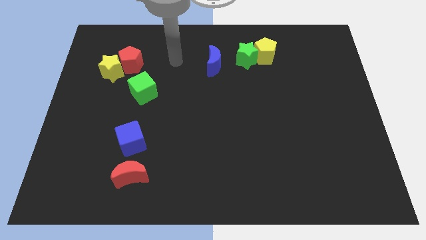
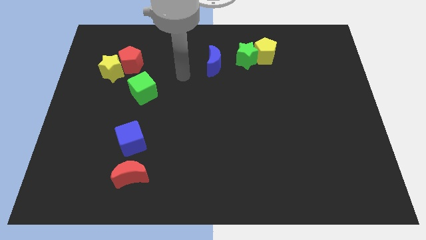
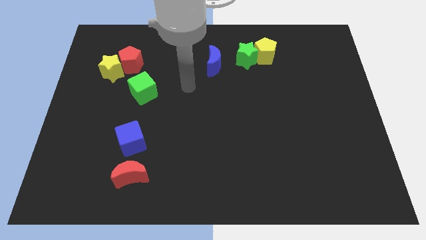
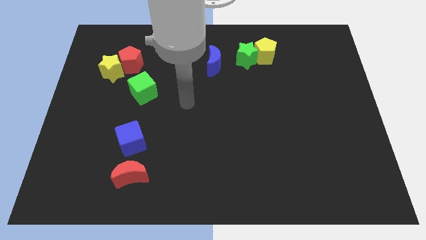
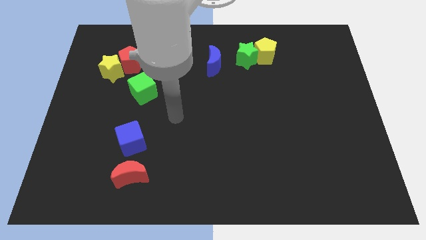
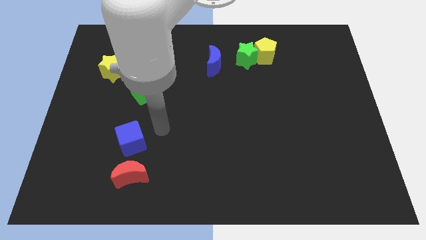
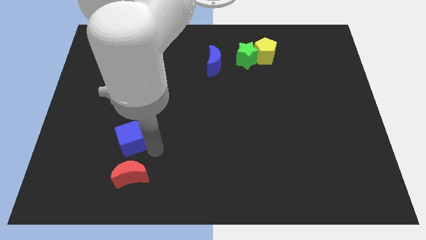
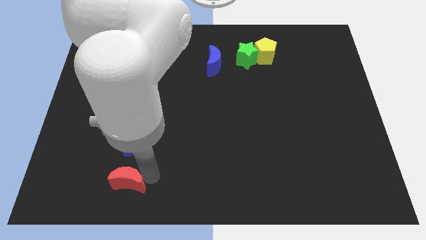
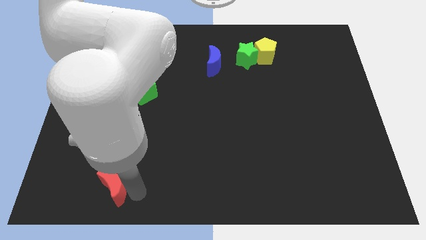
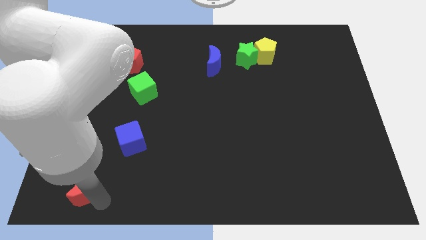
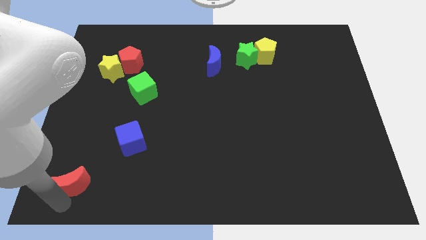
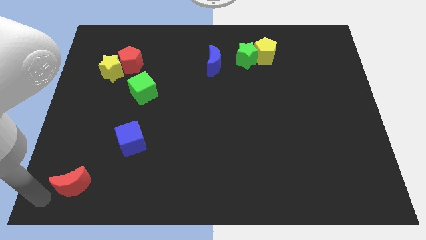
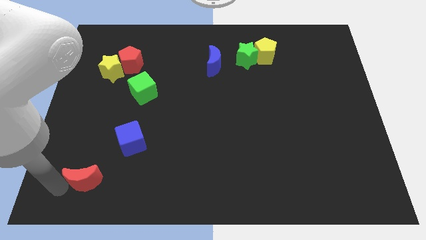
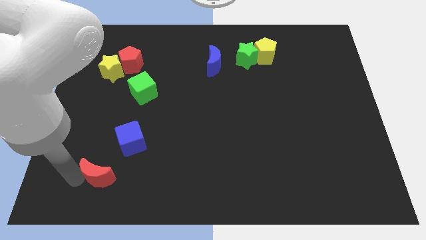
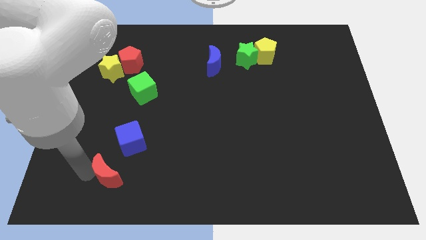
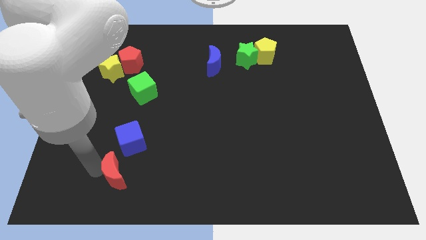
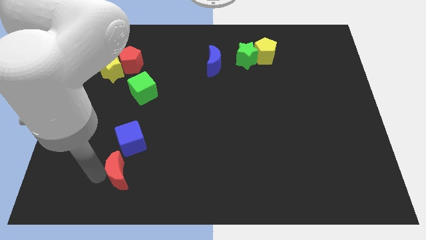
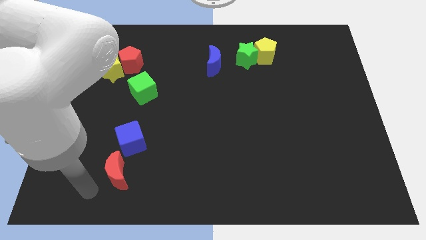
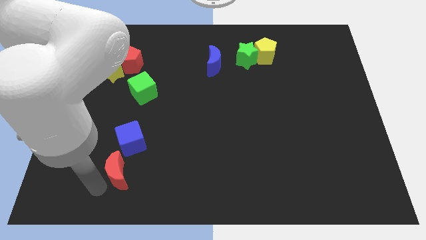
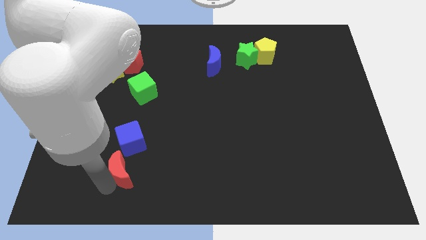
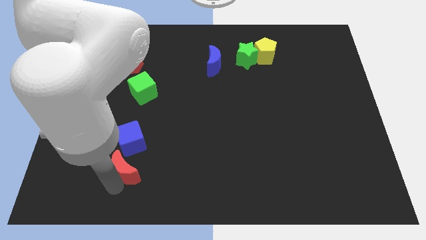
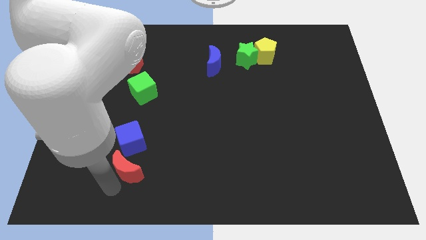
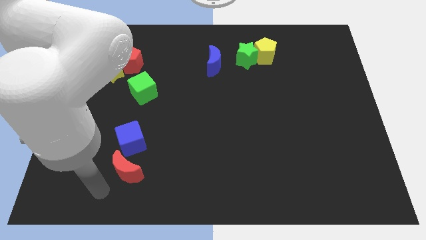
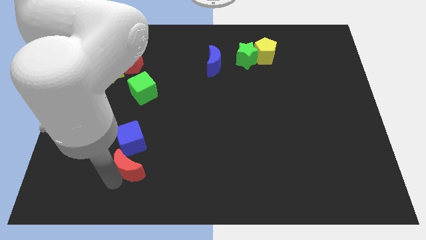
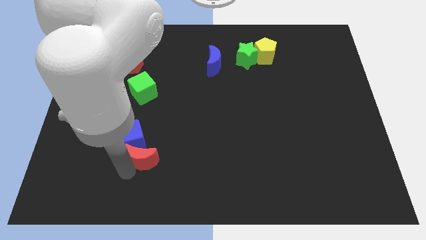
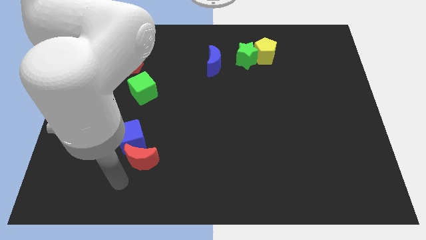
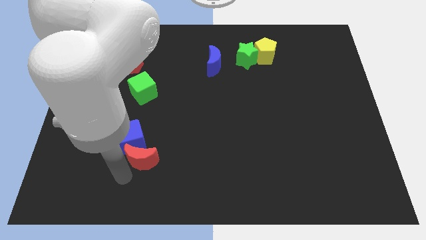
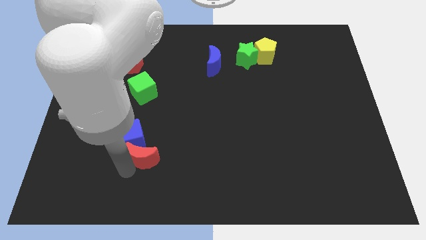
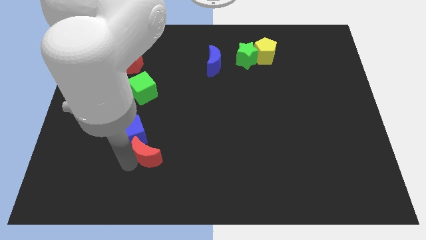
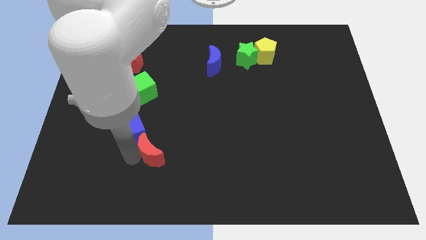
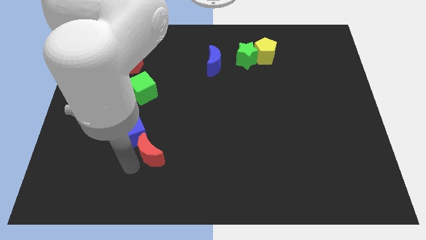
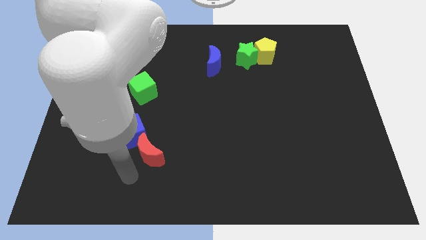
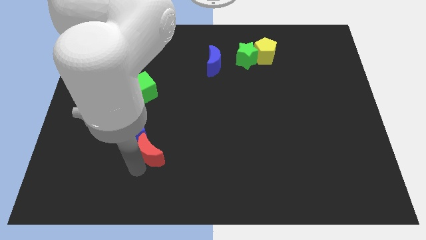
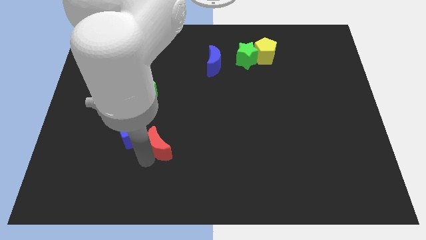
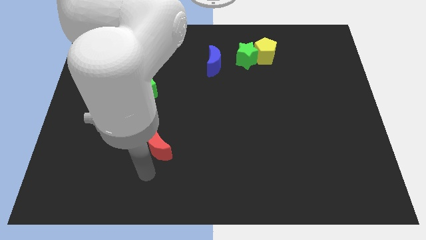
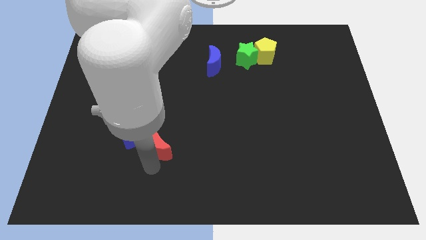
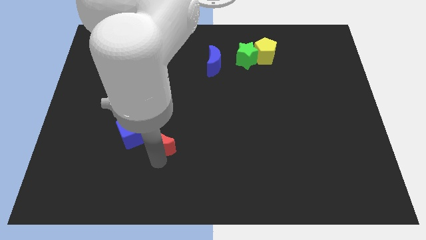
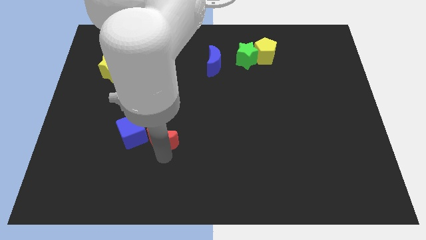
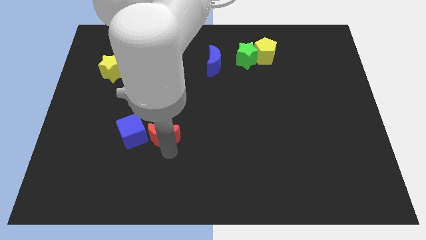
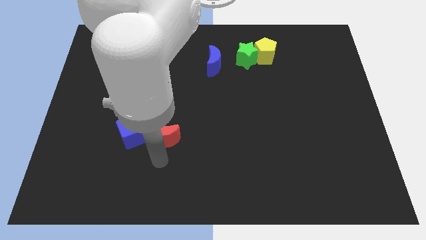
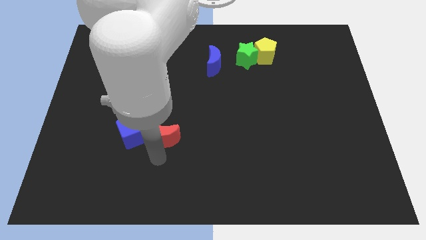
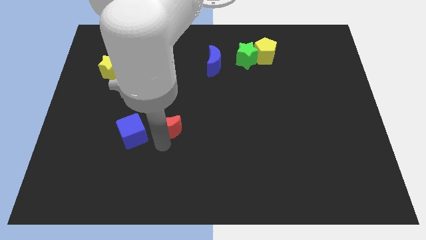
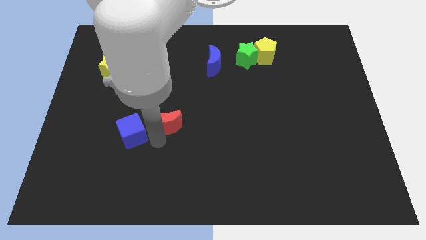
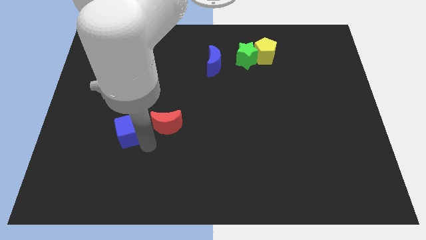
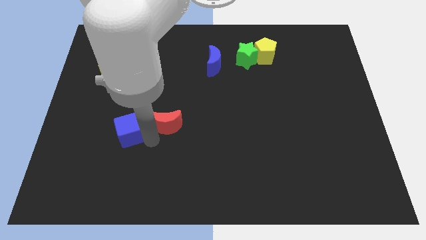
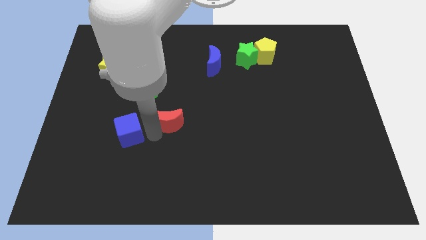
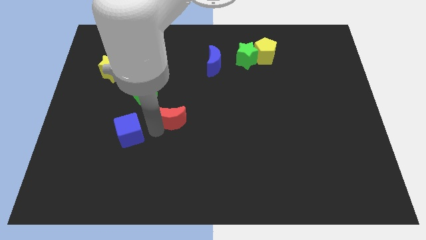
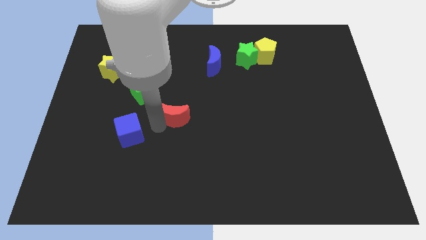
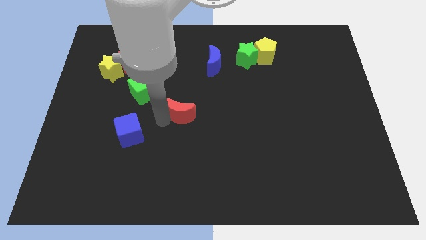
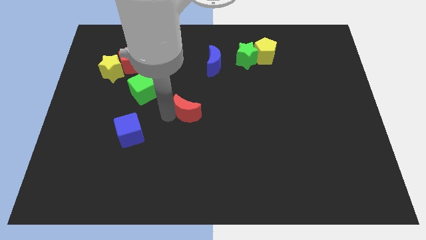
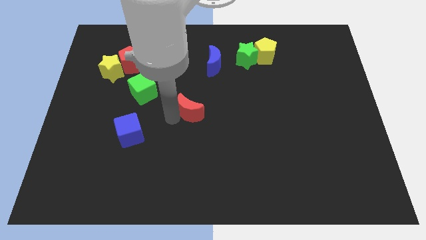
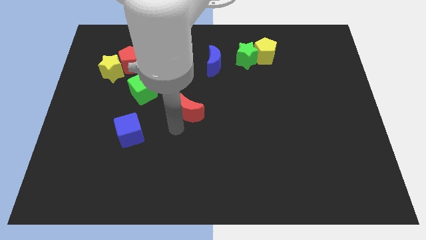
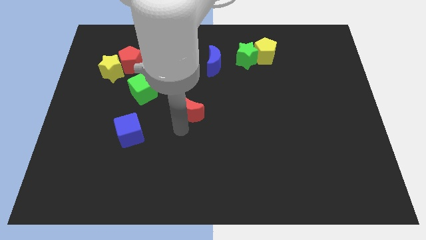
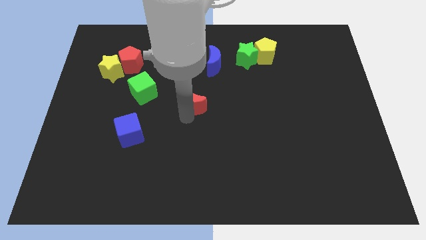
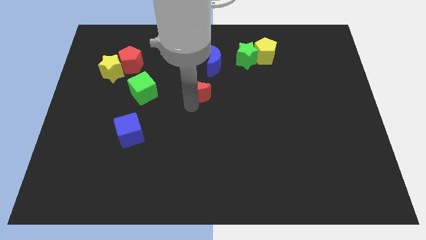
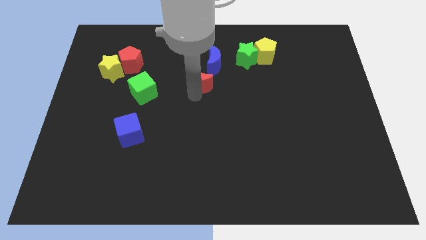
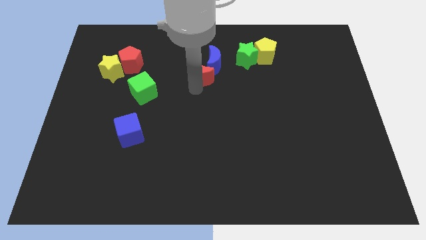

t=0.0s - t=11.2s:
push the red moon next to the blue moon

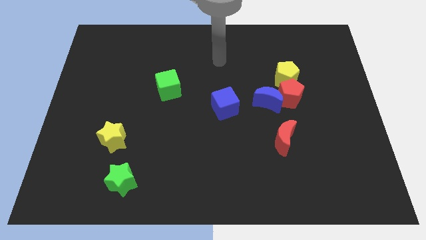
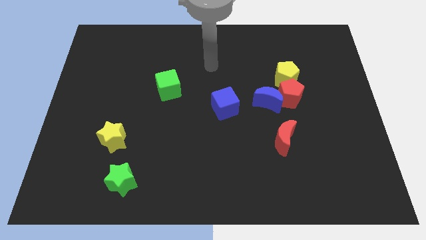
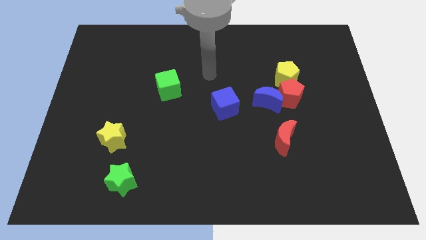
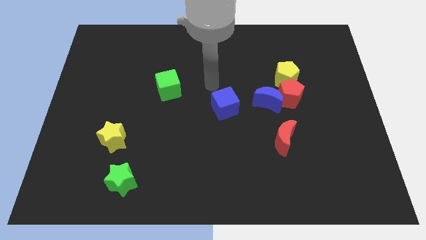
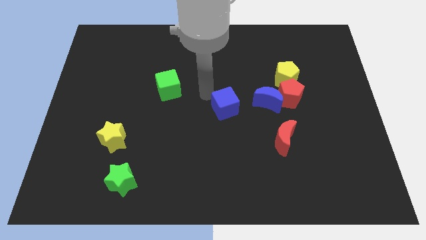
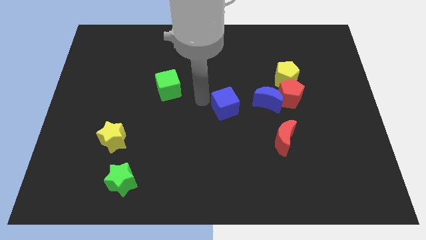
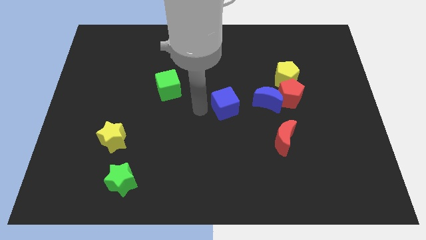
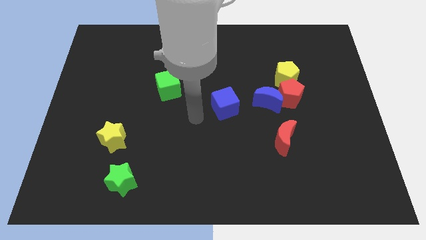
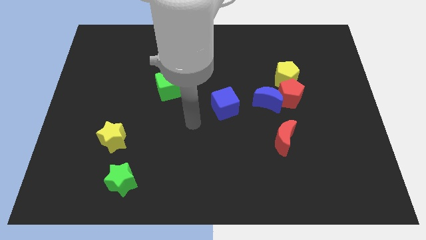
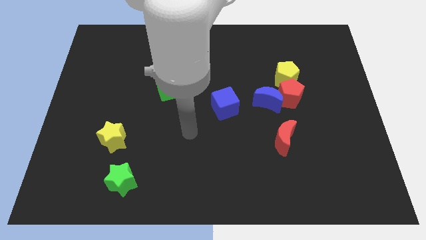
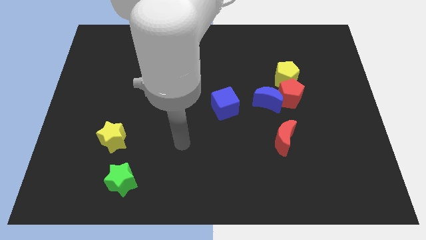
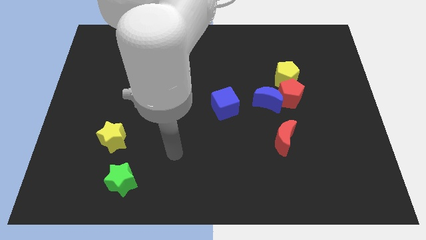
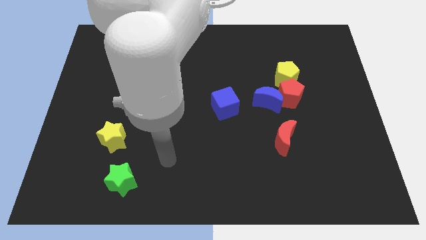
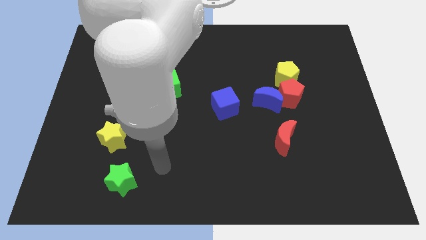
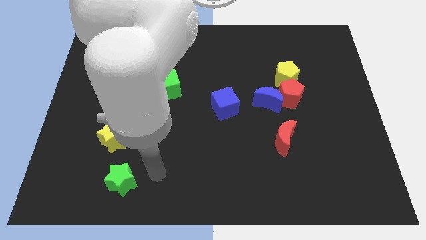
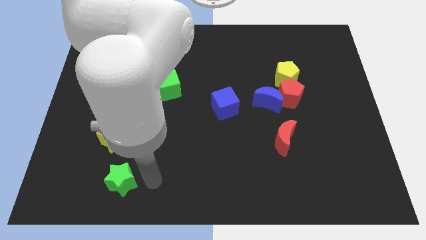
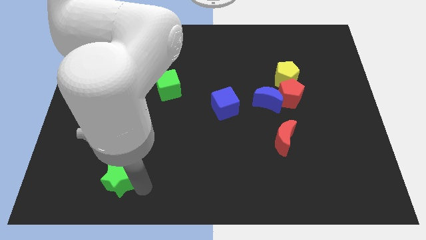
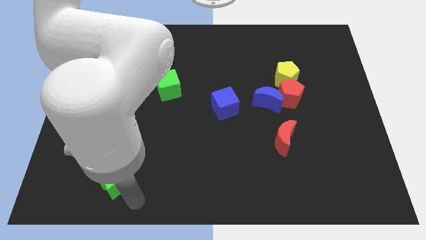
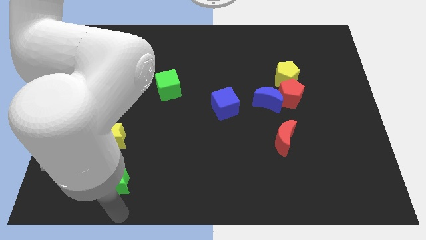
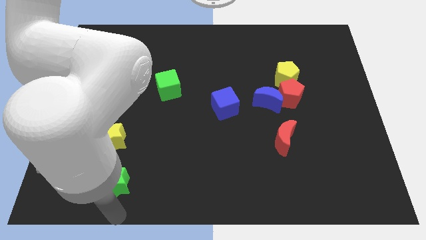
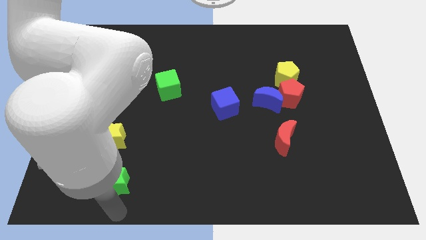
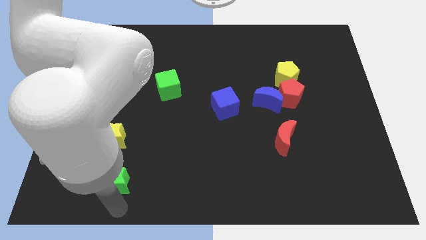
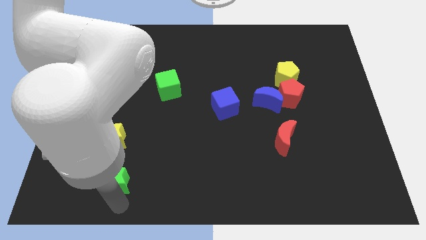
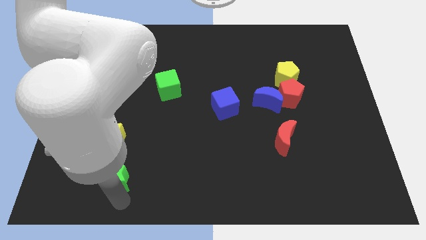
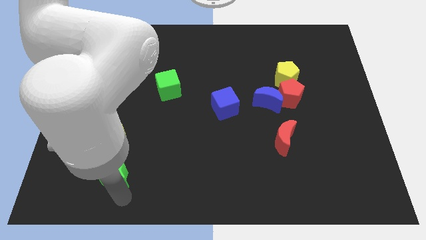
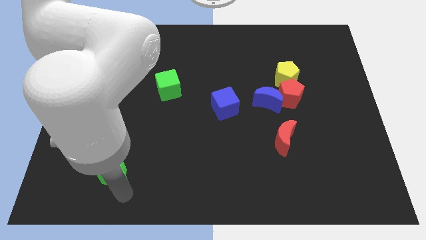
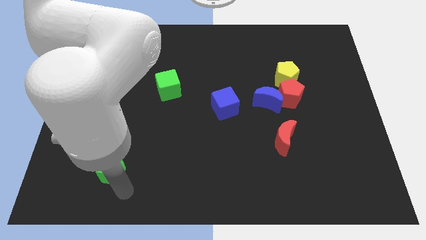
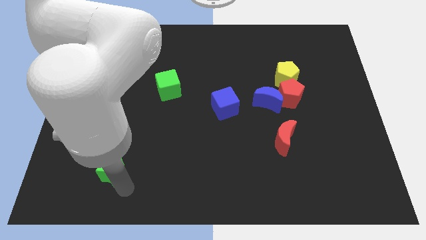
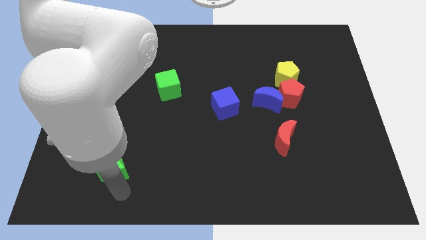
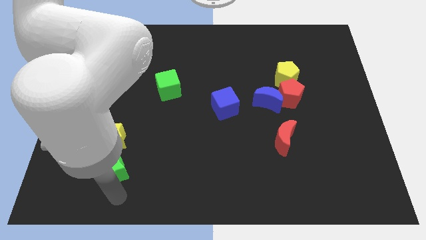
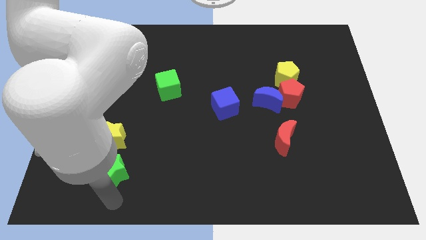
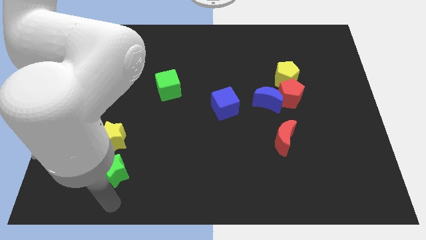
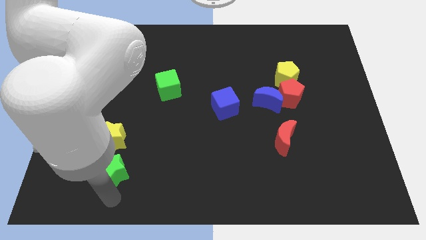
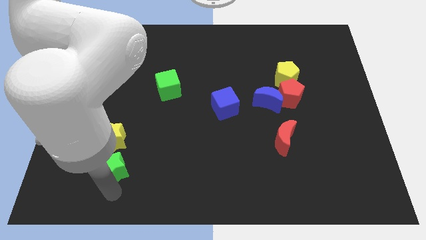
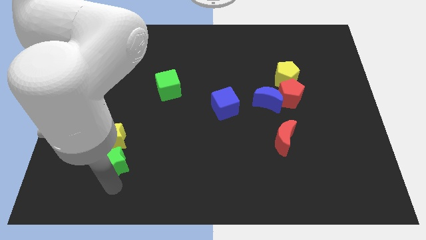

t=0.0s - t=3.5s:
move the green star to the yellow star
